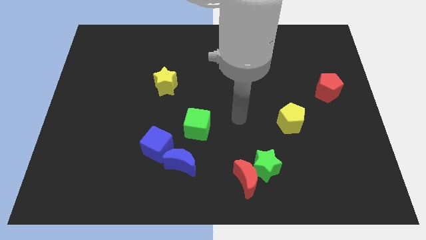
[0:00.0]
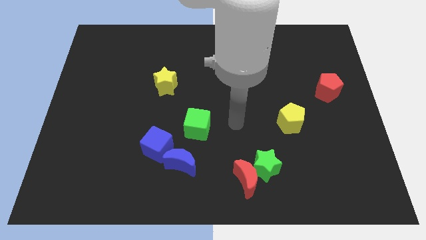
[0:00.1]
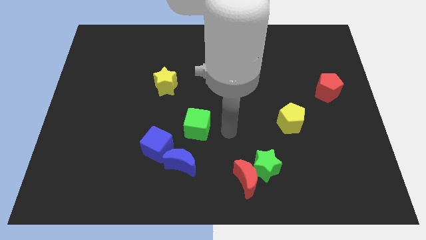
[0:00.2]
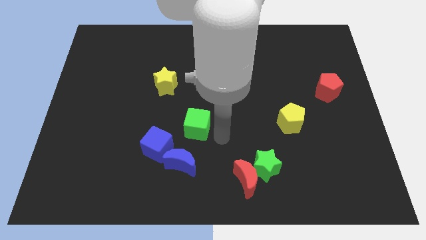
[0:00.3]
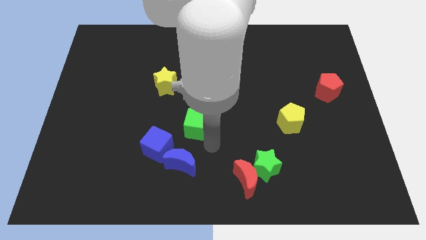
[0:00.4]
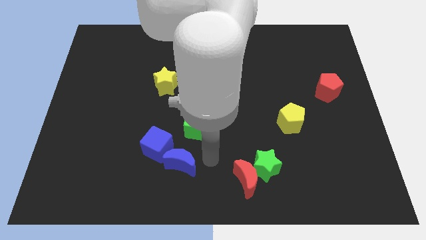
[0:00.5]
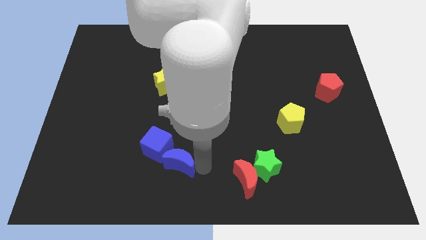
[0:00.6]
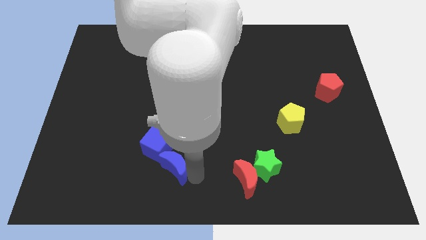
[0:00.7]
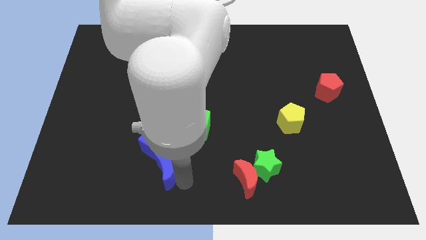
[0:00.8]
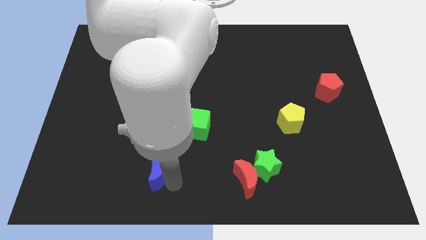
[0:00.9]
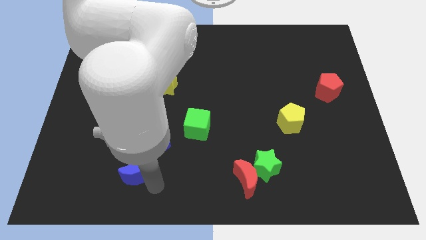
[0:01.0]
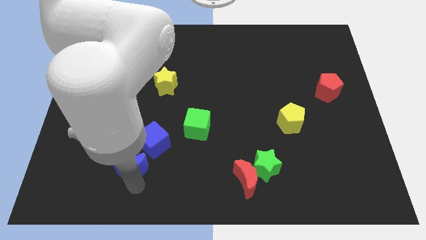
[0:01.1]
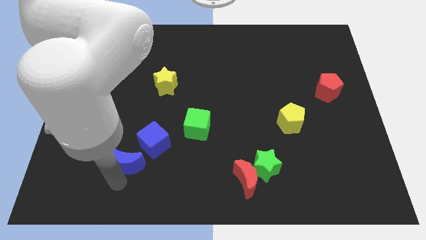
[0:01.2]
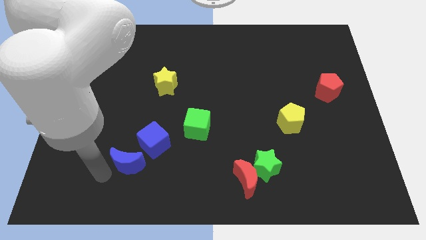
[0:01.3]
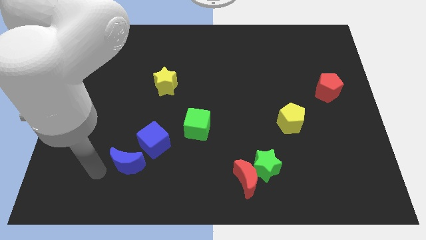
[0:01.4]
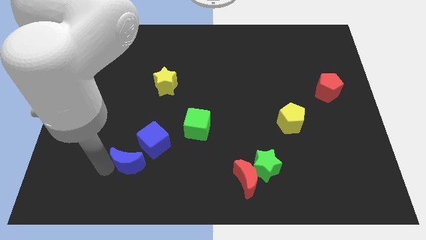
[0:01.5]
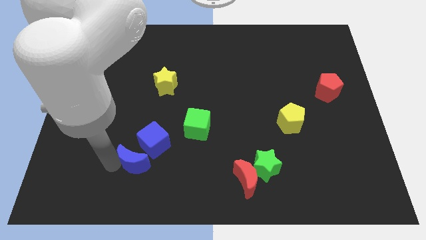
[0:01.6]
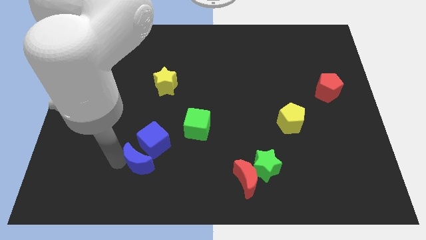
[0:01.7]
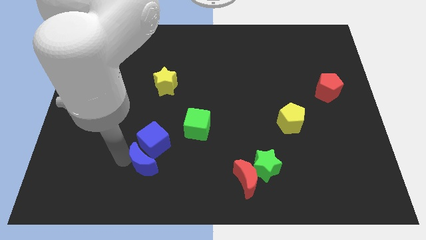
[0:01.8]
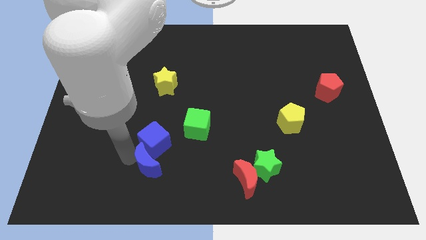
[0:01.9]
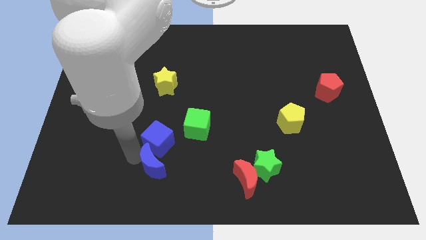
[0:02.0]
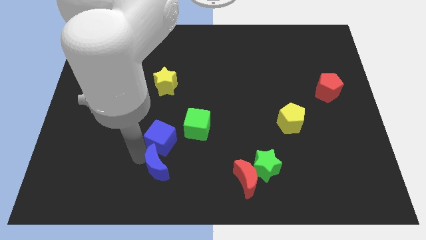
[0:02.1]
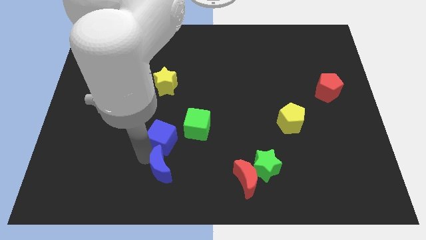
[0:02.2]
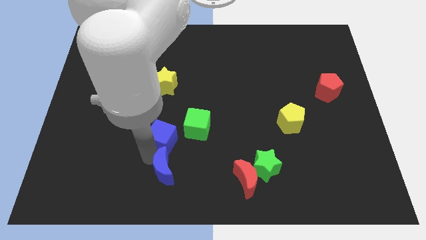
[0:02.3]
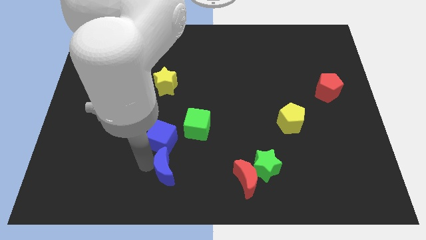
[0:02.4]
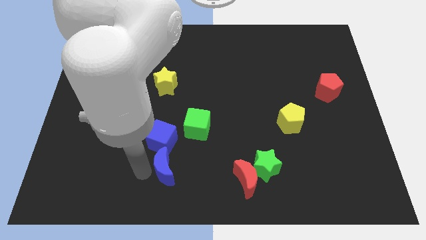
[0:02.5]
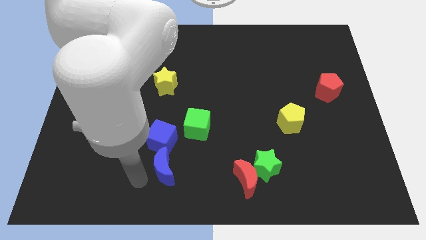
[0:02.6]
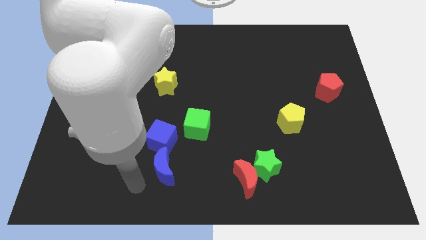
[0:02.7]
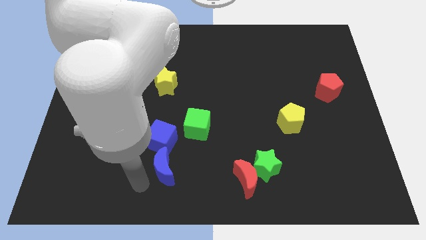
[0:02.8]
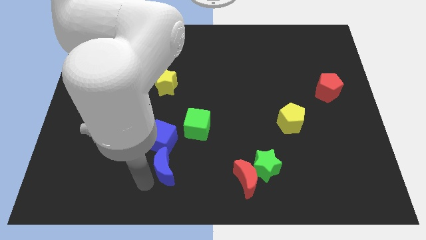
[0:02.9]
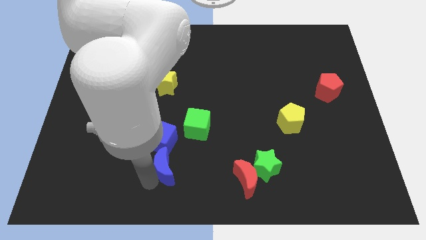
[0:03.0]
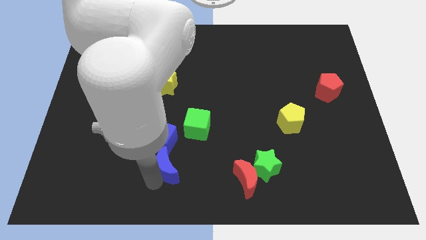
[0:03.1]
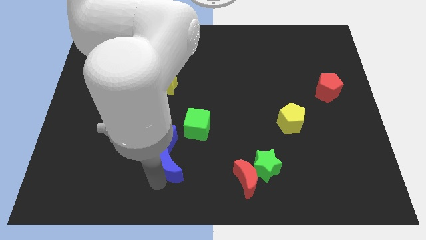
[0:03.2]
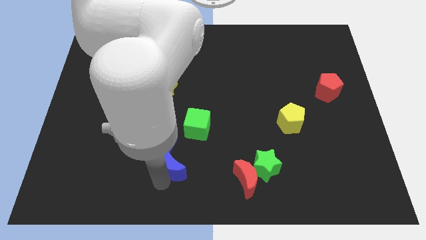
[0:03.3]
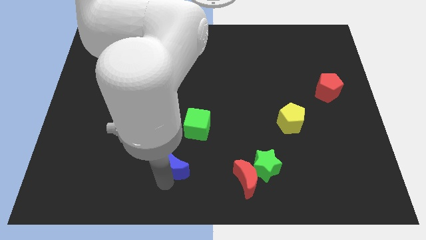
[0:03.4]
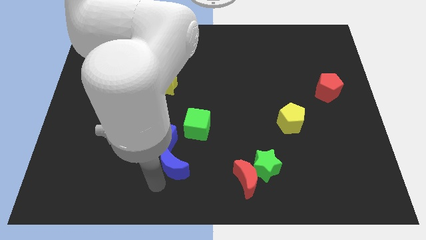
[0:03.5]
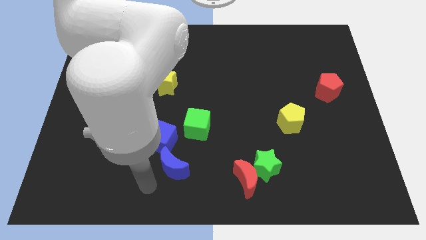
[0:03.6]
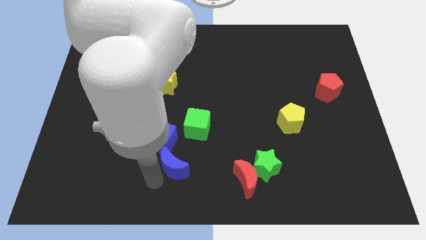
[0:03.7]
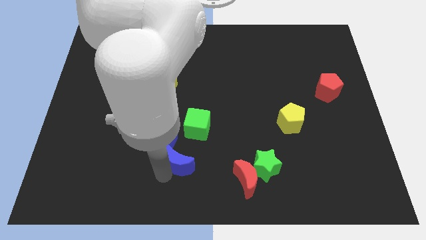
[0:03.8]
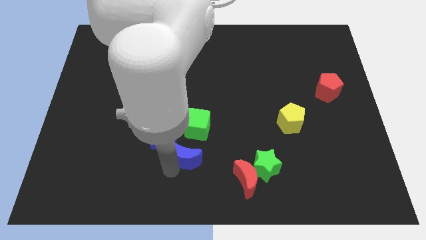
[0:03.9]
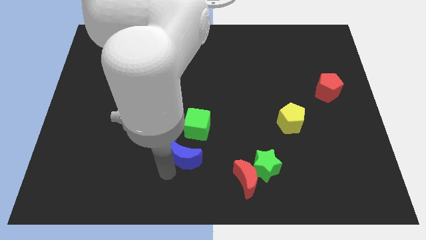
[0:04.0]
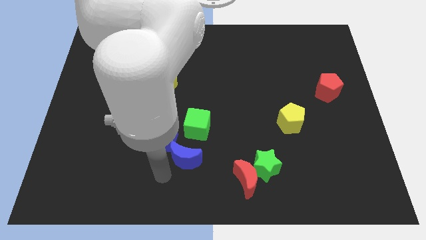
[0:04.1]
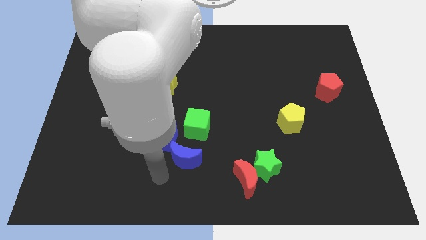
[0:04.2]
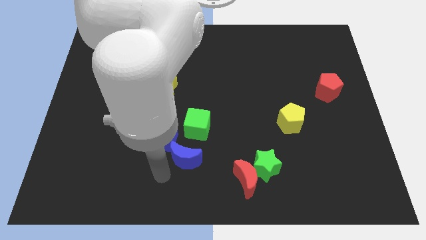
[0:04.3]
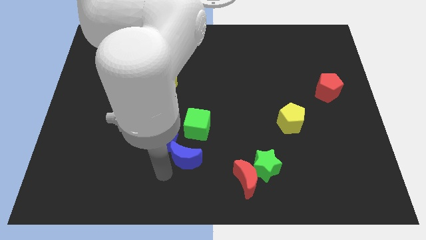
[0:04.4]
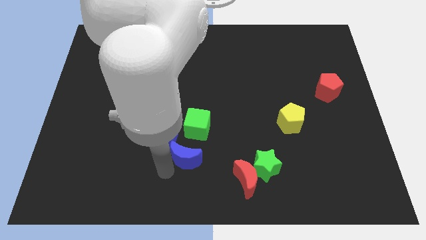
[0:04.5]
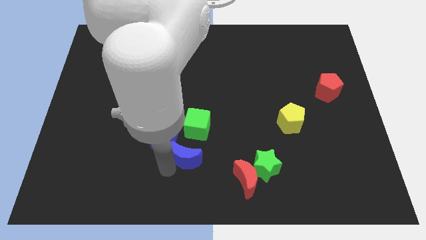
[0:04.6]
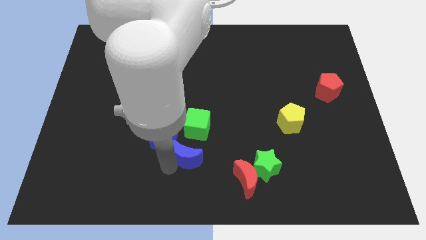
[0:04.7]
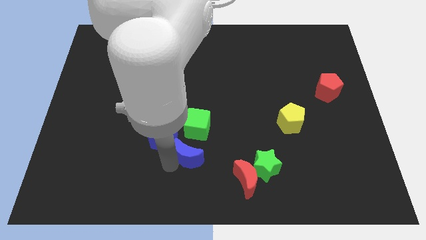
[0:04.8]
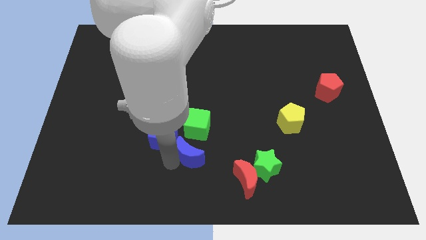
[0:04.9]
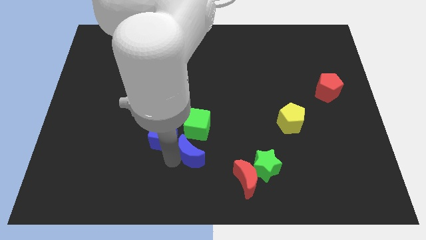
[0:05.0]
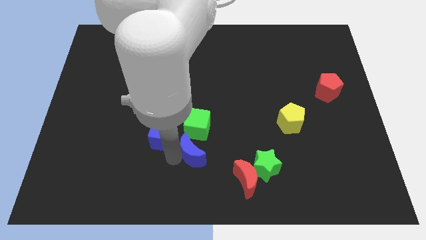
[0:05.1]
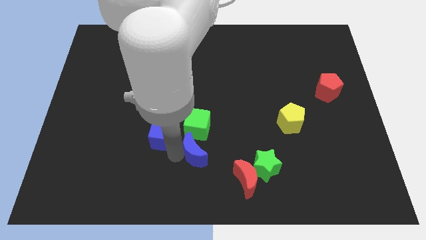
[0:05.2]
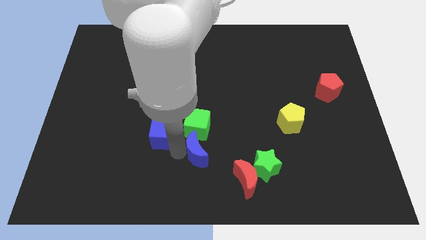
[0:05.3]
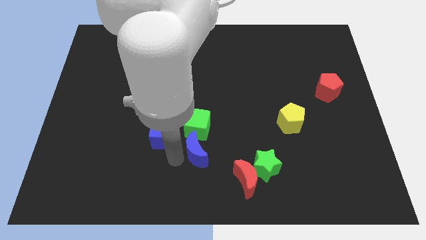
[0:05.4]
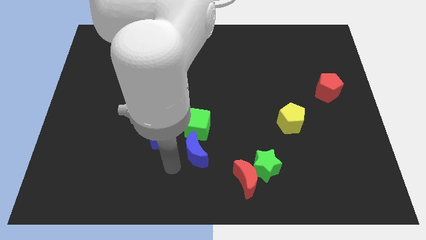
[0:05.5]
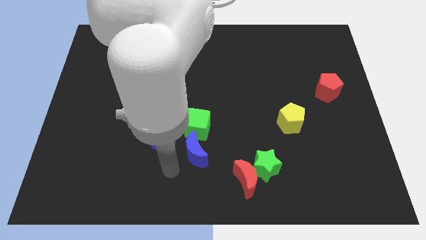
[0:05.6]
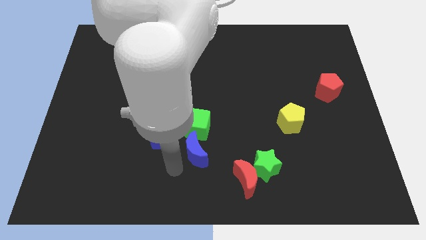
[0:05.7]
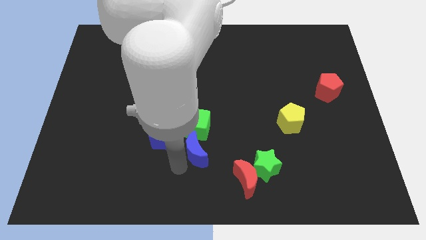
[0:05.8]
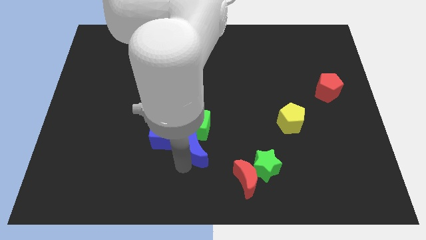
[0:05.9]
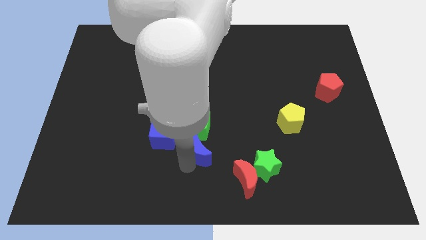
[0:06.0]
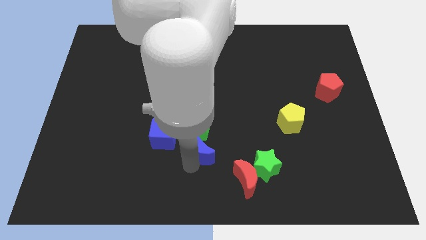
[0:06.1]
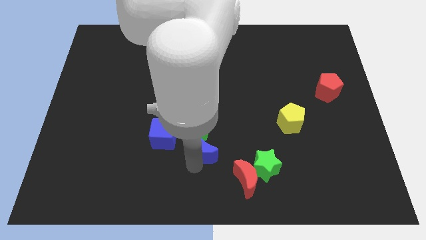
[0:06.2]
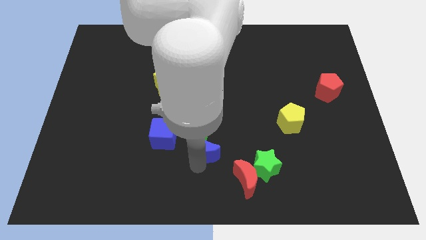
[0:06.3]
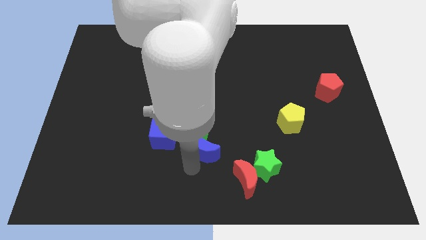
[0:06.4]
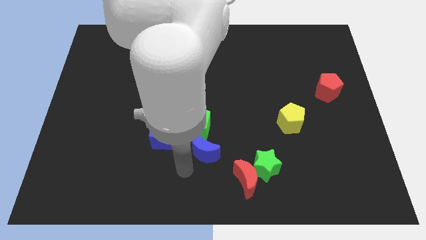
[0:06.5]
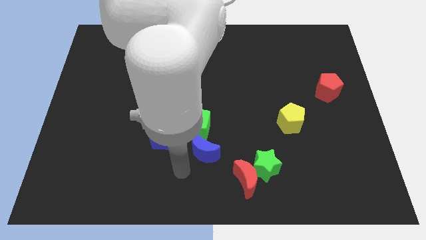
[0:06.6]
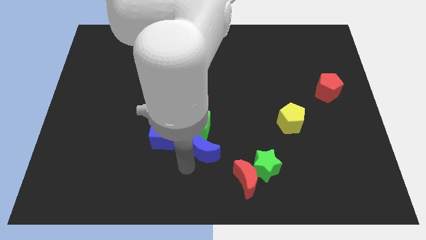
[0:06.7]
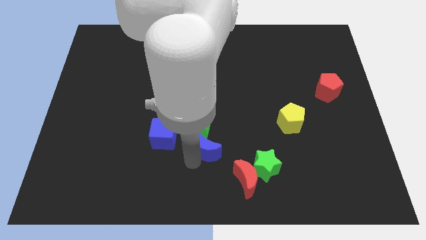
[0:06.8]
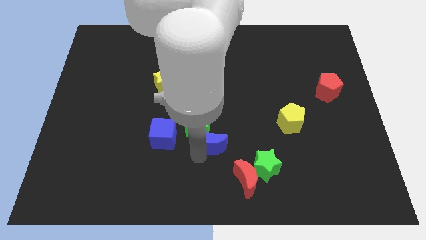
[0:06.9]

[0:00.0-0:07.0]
slide the blue moon slightly up and then to the right

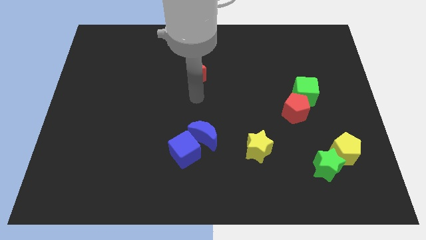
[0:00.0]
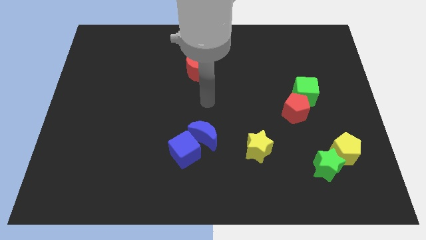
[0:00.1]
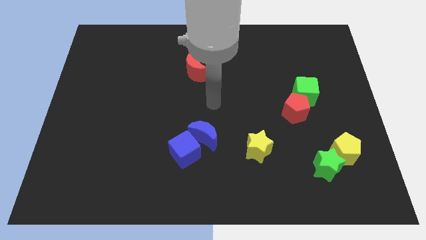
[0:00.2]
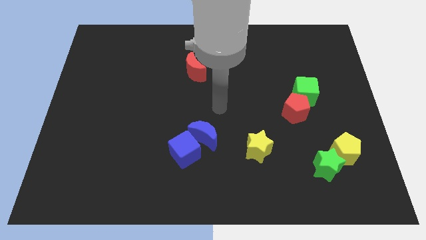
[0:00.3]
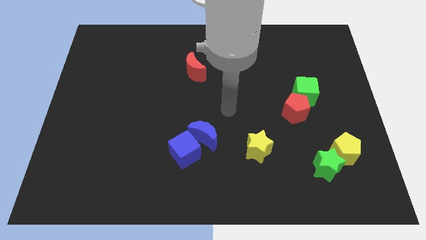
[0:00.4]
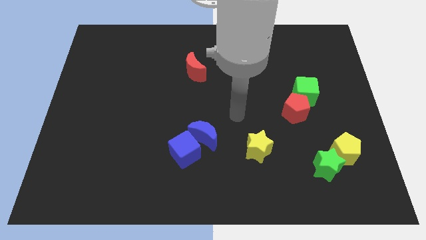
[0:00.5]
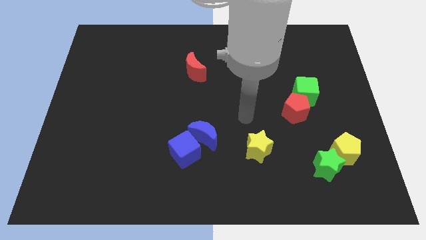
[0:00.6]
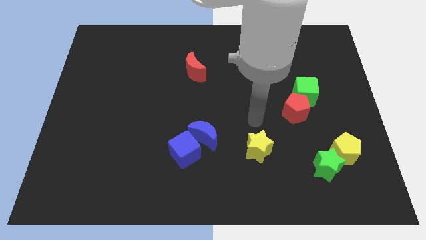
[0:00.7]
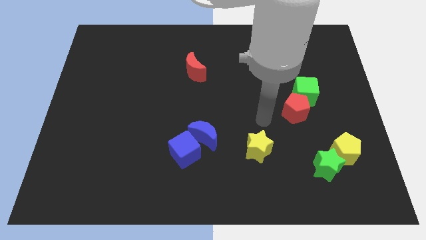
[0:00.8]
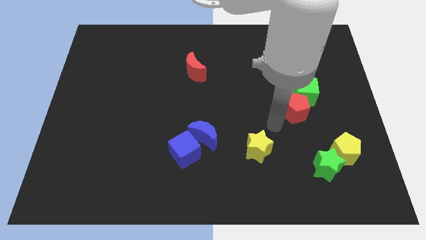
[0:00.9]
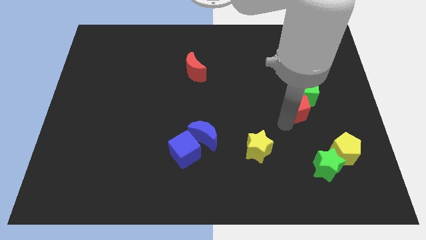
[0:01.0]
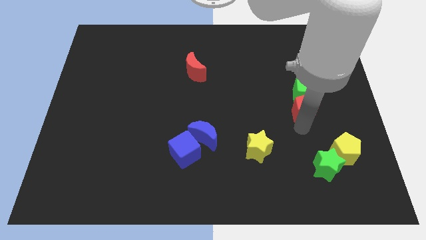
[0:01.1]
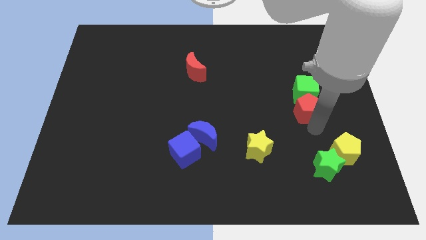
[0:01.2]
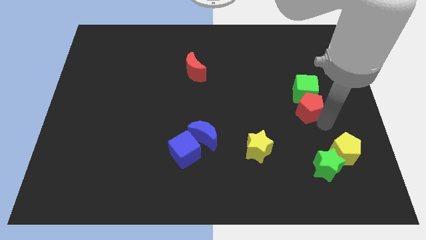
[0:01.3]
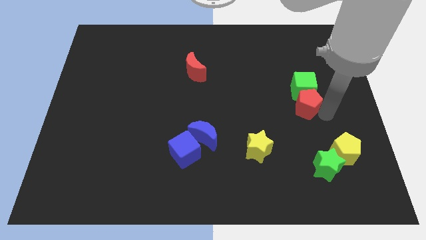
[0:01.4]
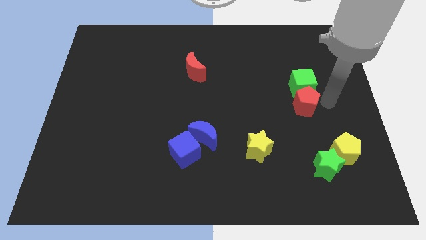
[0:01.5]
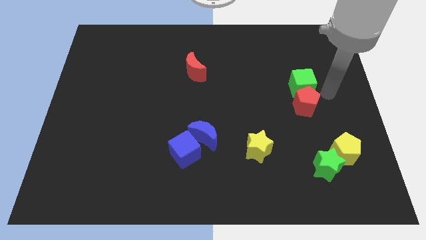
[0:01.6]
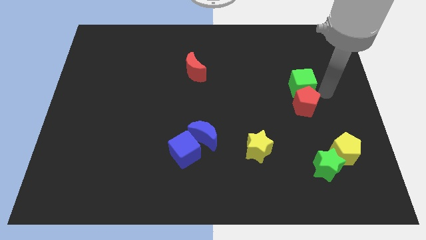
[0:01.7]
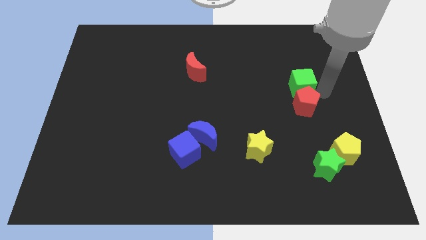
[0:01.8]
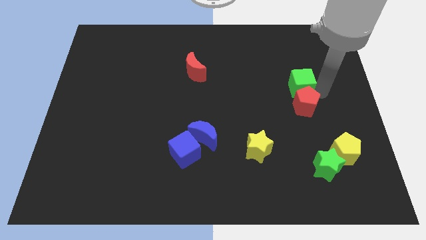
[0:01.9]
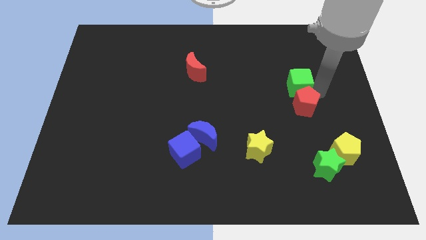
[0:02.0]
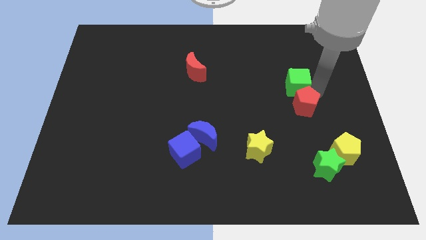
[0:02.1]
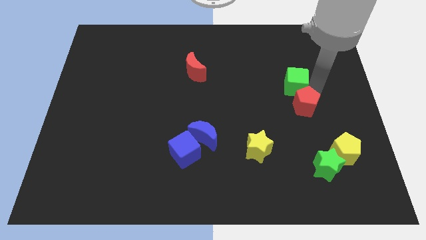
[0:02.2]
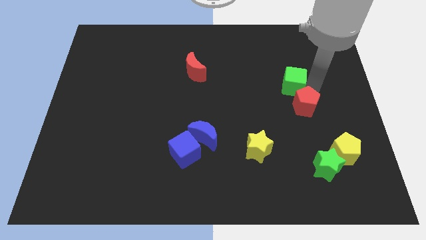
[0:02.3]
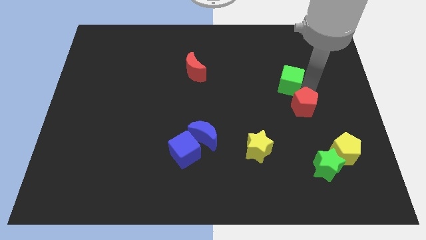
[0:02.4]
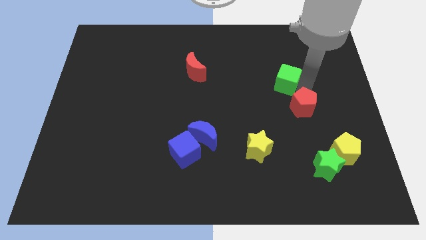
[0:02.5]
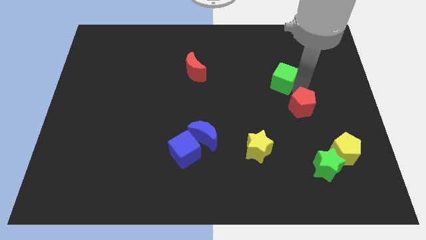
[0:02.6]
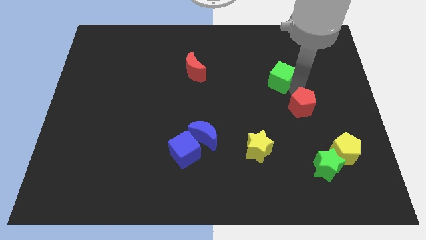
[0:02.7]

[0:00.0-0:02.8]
slide the green cube slightly up and then to the left
